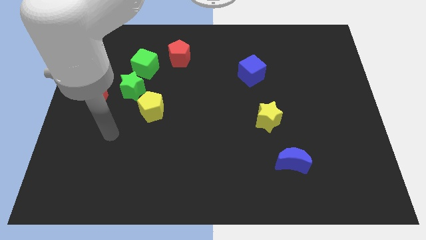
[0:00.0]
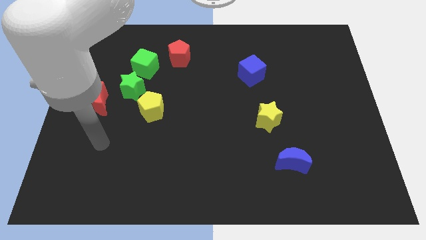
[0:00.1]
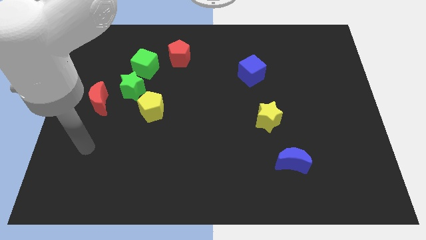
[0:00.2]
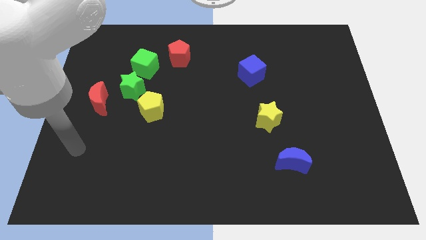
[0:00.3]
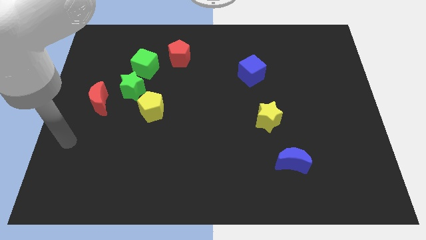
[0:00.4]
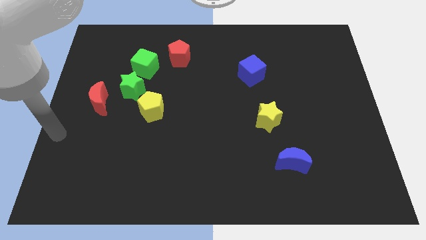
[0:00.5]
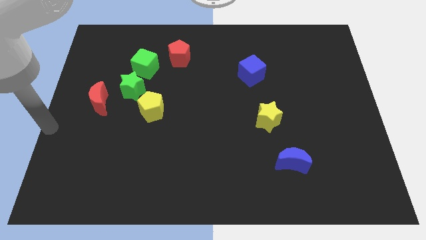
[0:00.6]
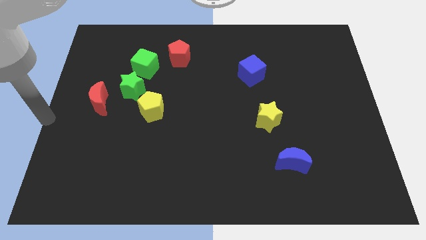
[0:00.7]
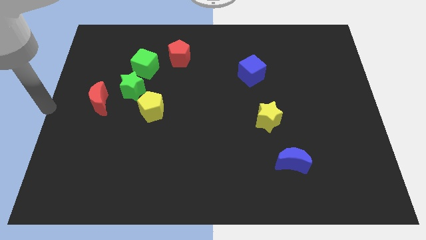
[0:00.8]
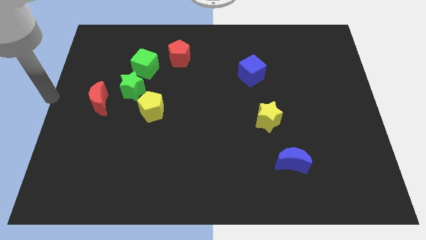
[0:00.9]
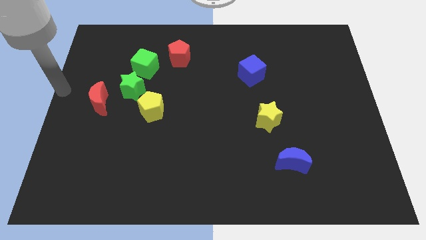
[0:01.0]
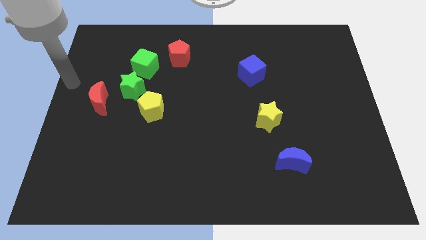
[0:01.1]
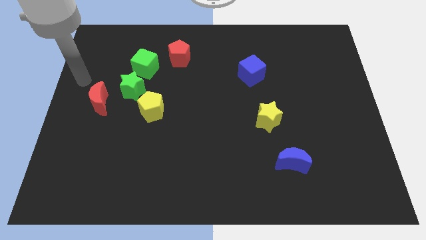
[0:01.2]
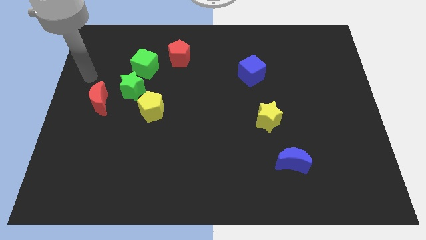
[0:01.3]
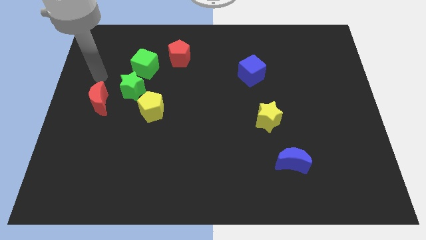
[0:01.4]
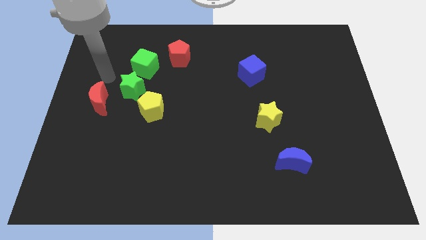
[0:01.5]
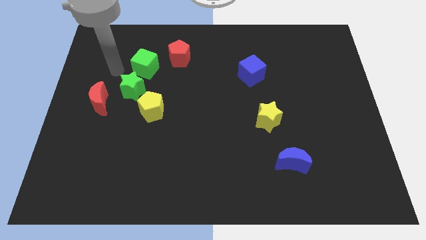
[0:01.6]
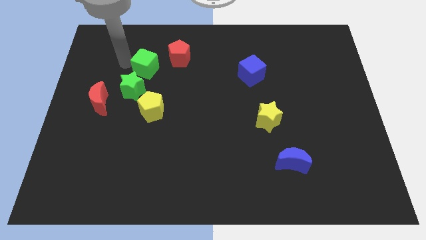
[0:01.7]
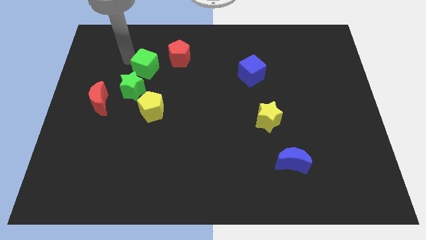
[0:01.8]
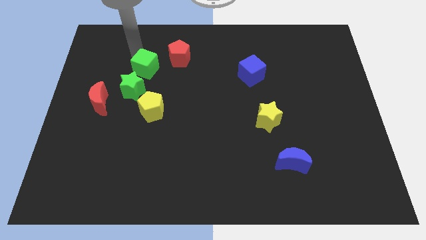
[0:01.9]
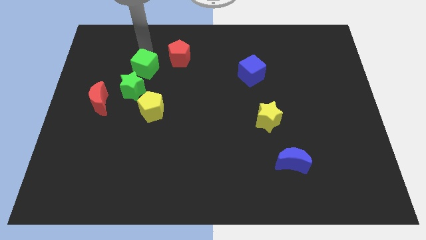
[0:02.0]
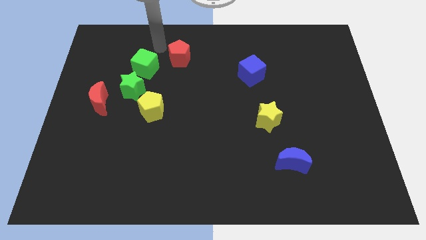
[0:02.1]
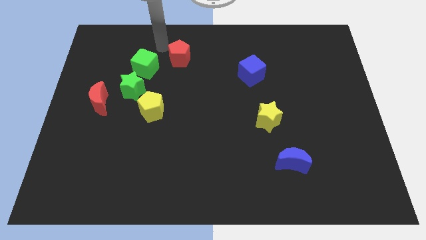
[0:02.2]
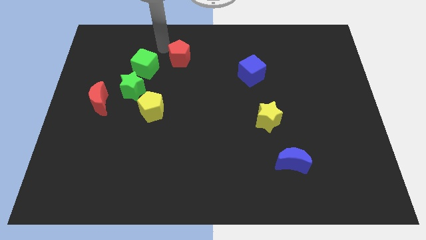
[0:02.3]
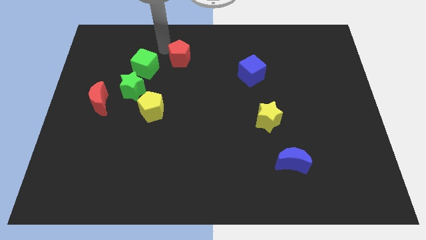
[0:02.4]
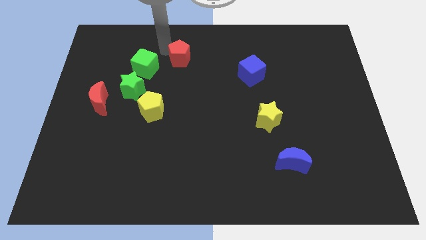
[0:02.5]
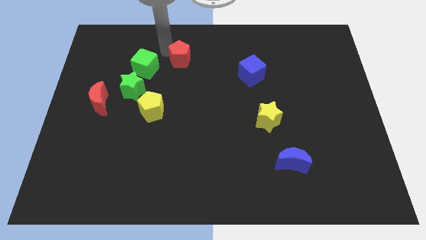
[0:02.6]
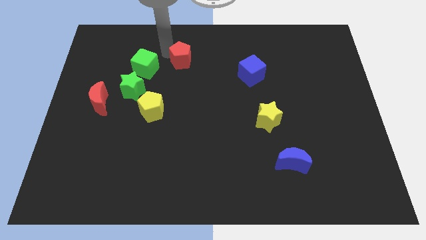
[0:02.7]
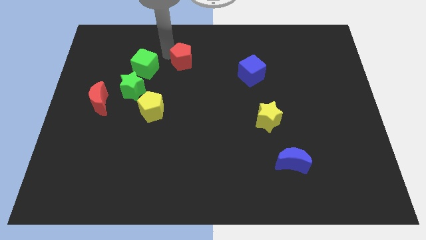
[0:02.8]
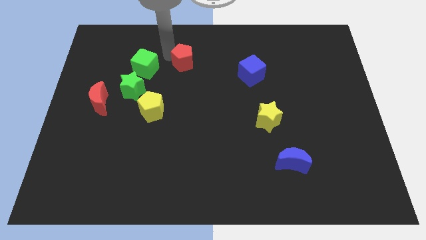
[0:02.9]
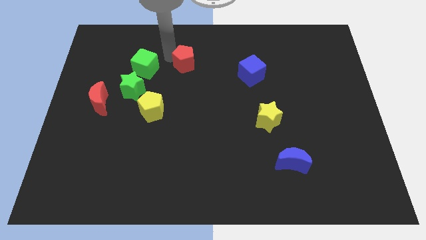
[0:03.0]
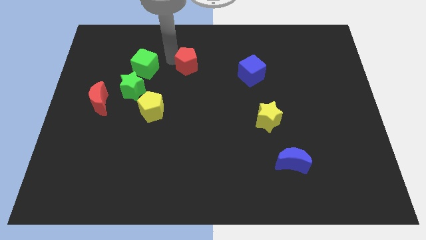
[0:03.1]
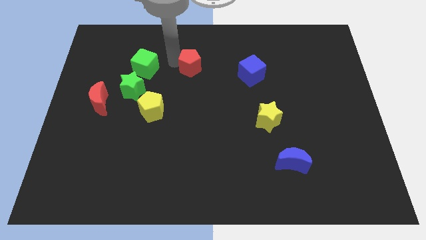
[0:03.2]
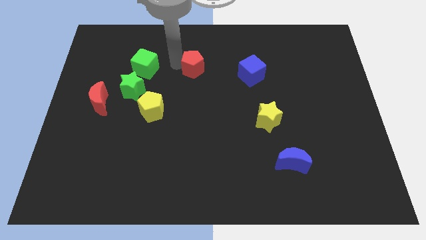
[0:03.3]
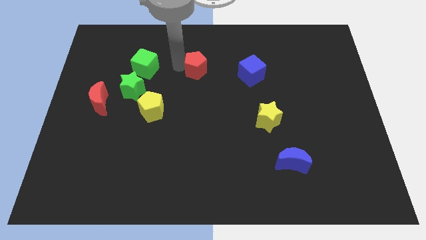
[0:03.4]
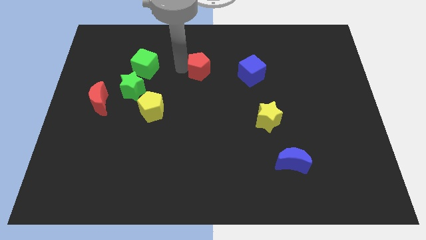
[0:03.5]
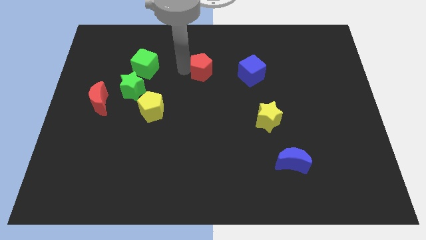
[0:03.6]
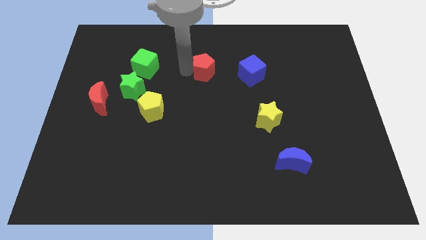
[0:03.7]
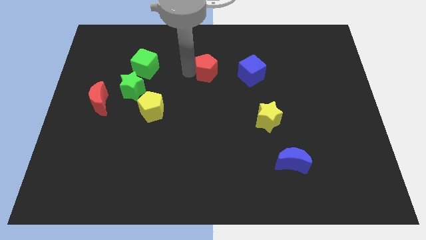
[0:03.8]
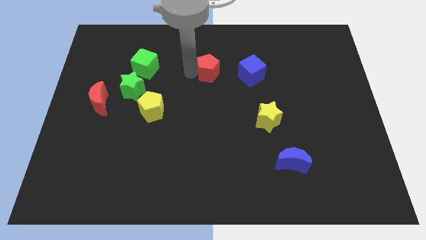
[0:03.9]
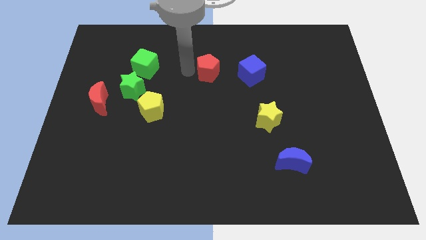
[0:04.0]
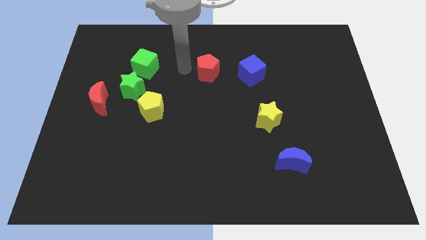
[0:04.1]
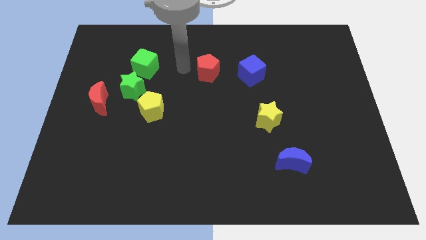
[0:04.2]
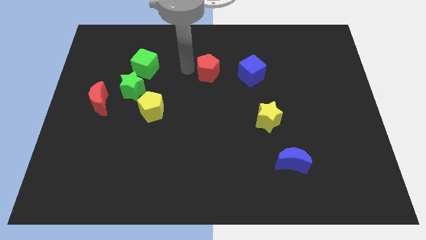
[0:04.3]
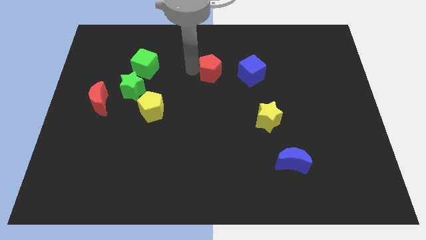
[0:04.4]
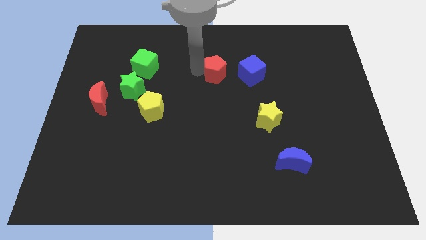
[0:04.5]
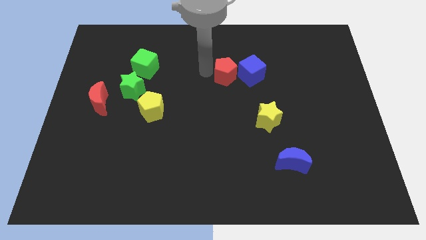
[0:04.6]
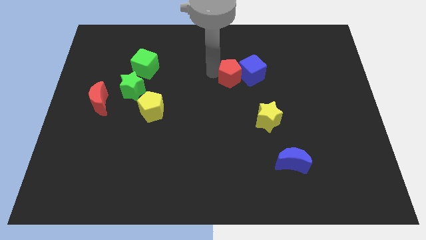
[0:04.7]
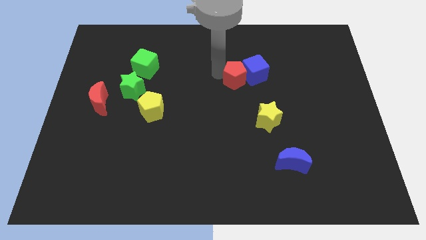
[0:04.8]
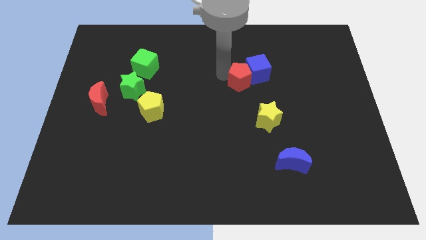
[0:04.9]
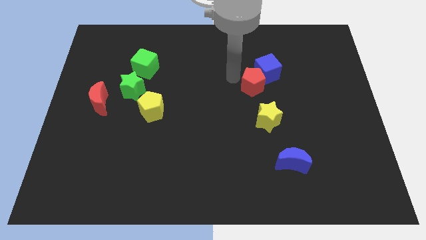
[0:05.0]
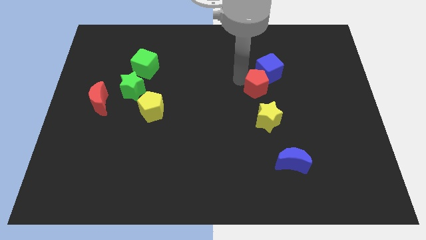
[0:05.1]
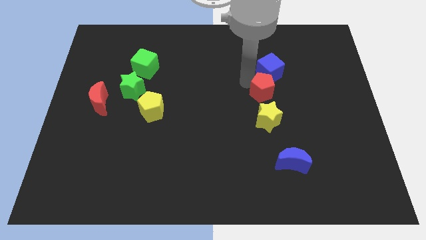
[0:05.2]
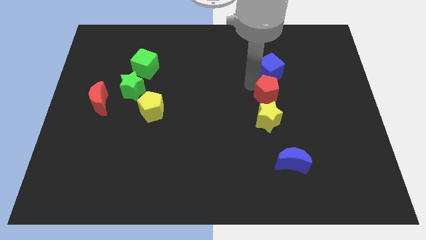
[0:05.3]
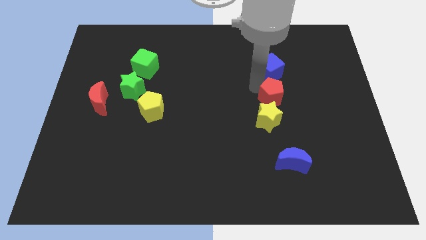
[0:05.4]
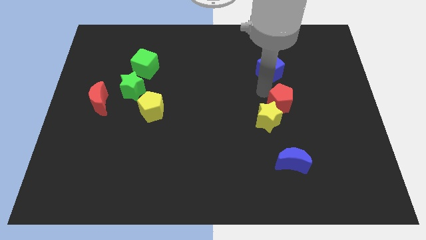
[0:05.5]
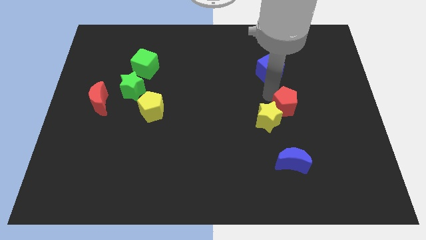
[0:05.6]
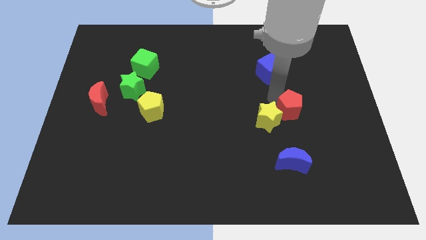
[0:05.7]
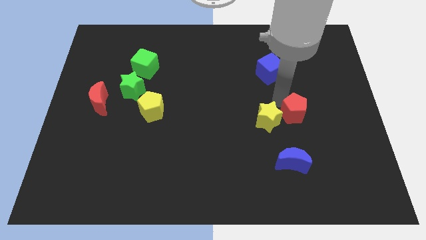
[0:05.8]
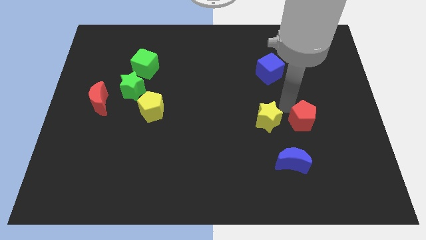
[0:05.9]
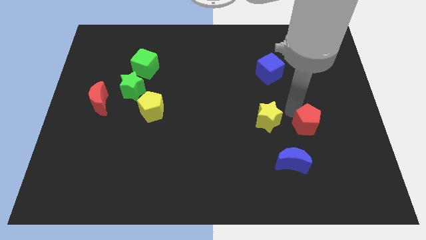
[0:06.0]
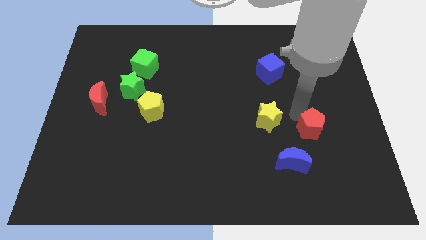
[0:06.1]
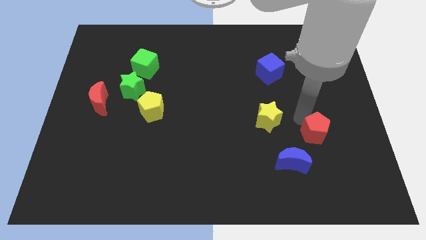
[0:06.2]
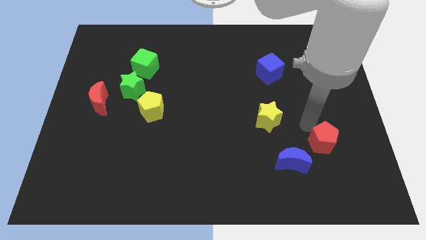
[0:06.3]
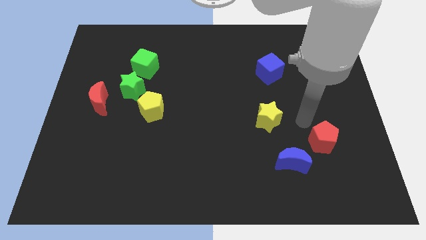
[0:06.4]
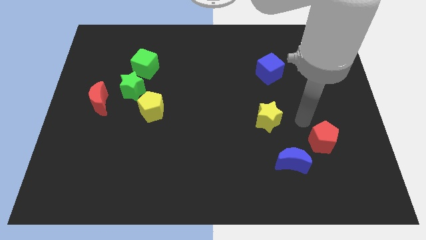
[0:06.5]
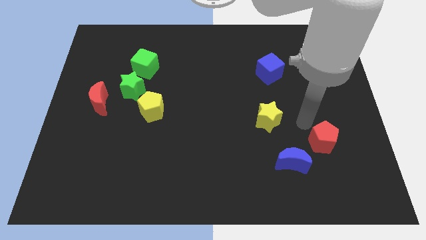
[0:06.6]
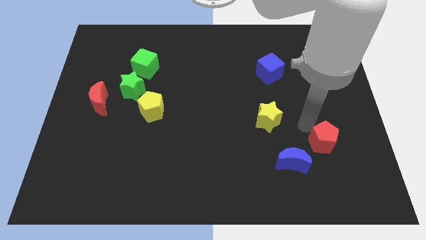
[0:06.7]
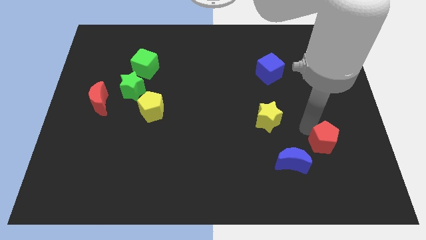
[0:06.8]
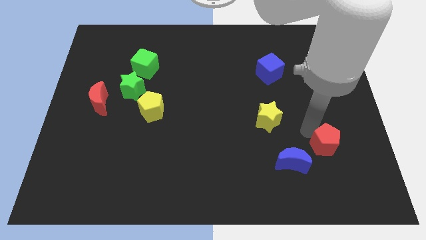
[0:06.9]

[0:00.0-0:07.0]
move the red pentagon just right of the blue moon
